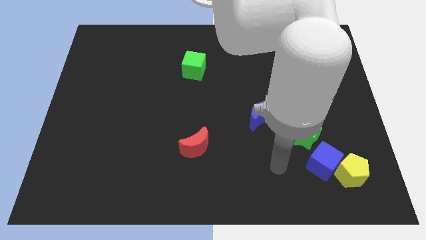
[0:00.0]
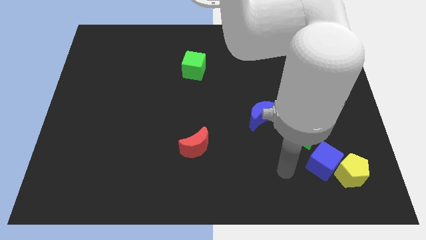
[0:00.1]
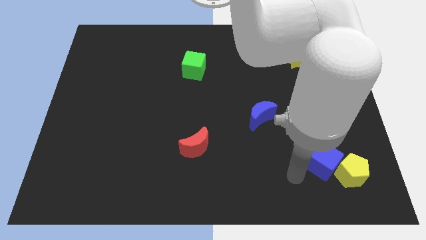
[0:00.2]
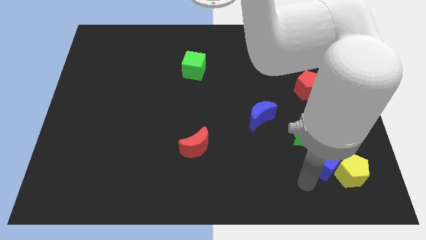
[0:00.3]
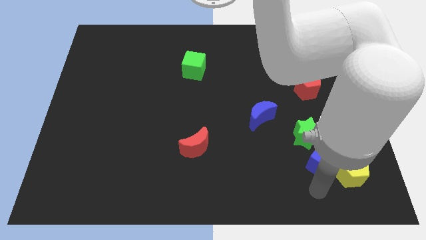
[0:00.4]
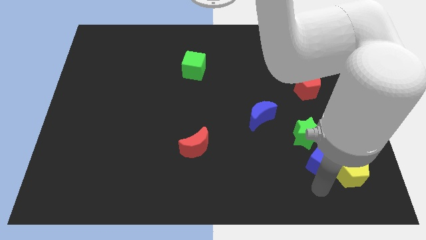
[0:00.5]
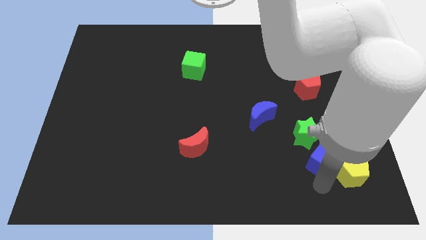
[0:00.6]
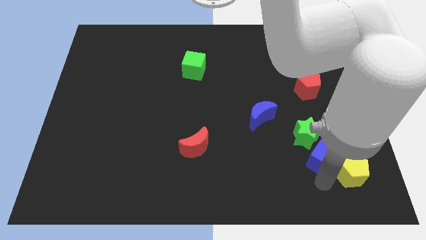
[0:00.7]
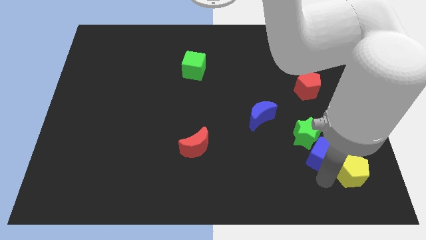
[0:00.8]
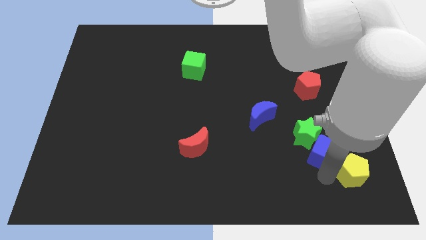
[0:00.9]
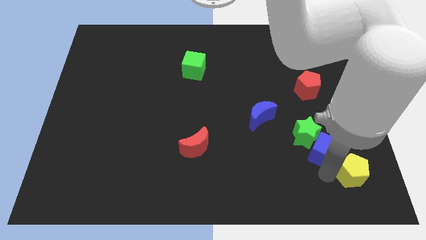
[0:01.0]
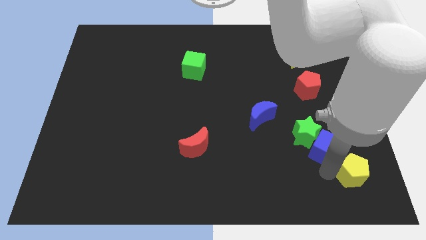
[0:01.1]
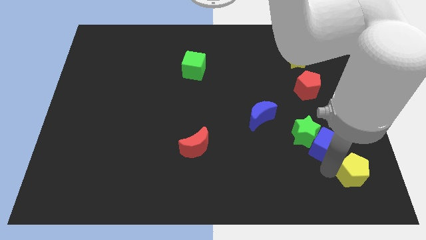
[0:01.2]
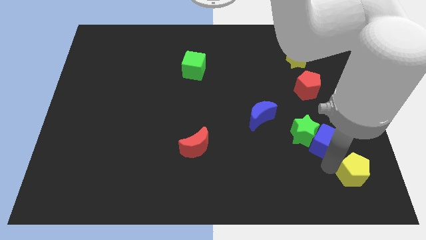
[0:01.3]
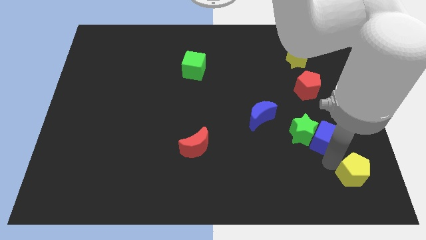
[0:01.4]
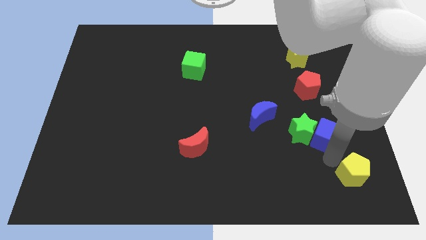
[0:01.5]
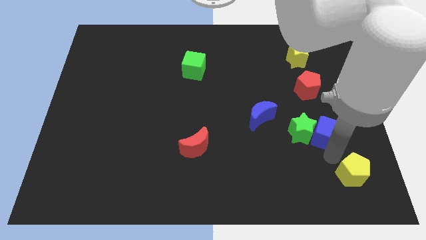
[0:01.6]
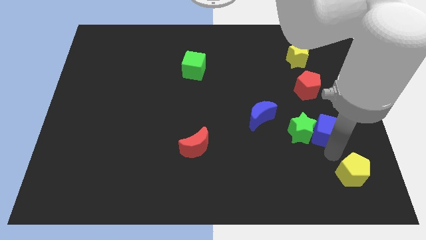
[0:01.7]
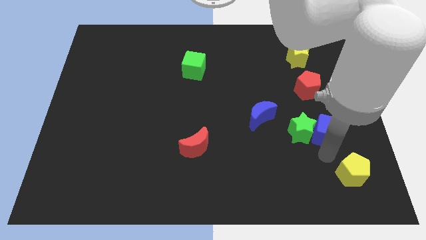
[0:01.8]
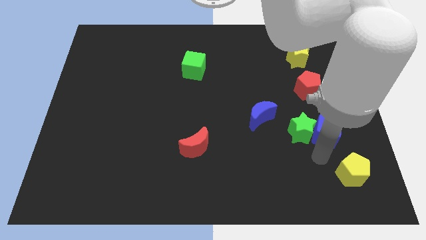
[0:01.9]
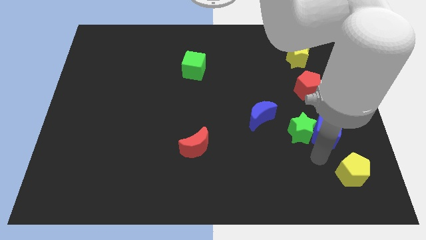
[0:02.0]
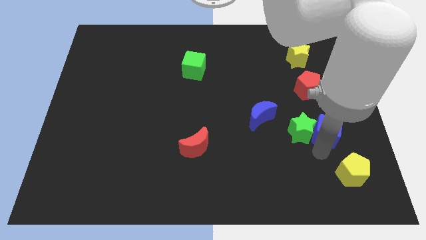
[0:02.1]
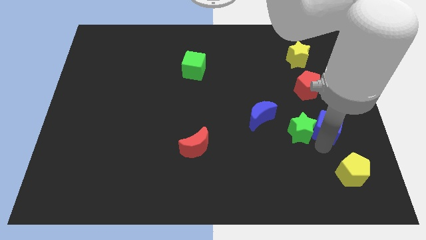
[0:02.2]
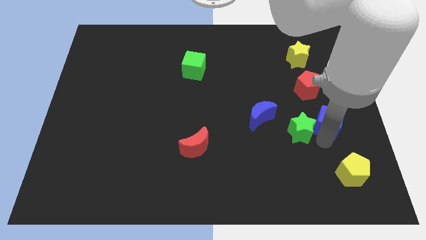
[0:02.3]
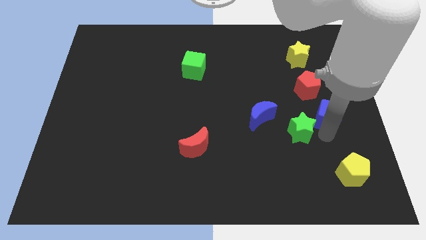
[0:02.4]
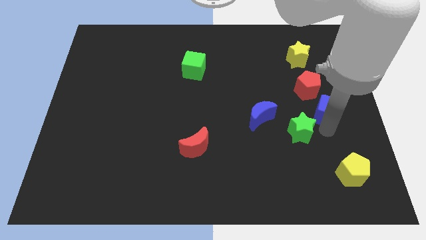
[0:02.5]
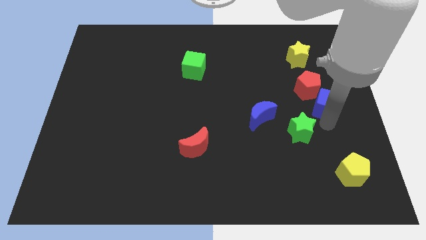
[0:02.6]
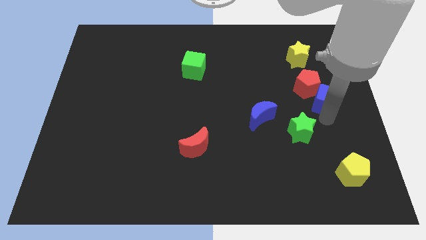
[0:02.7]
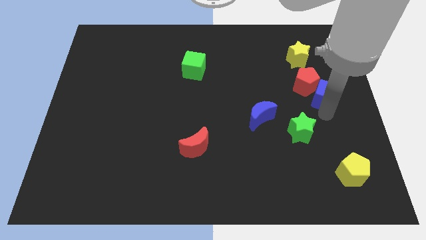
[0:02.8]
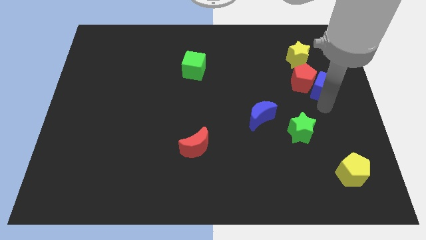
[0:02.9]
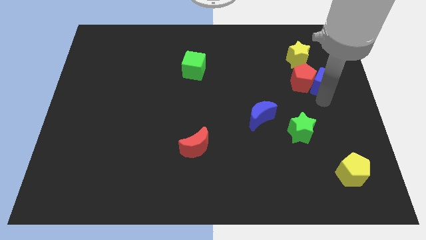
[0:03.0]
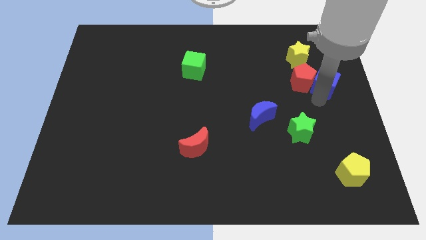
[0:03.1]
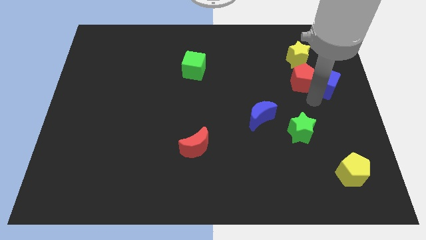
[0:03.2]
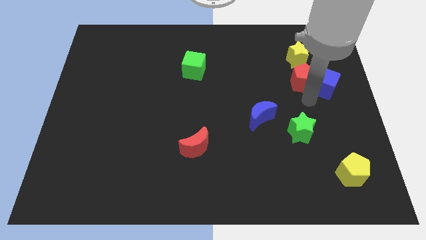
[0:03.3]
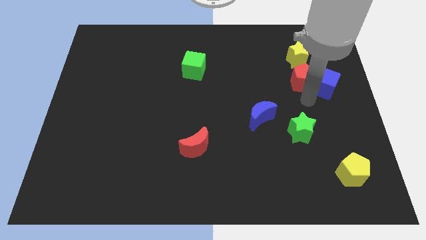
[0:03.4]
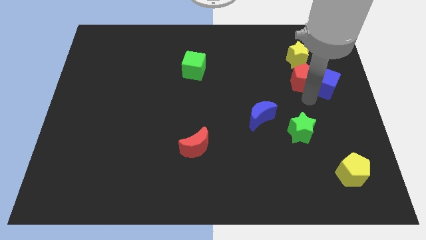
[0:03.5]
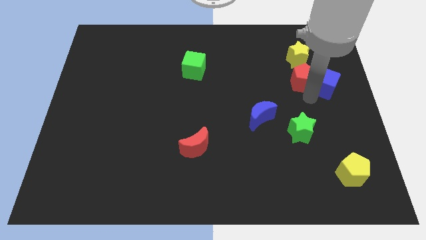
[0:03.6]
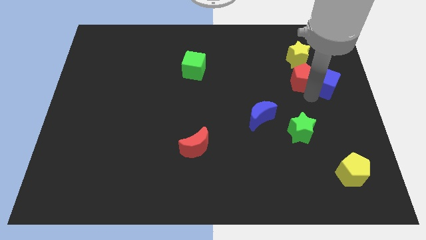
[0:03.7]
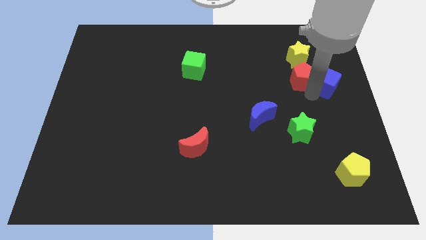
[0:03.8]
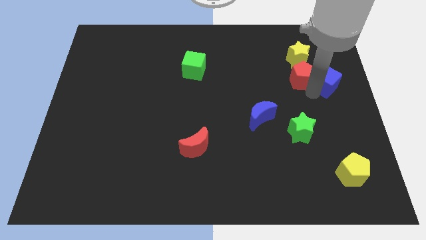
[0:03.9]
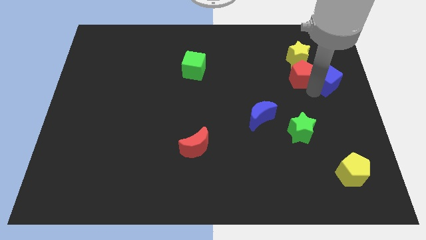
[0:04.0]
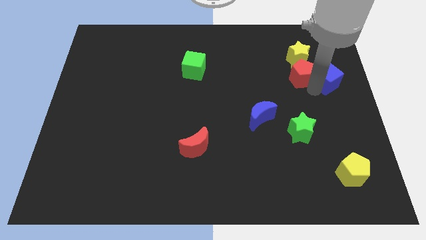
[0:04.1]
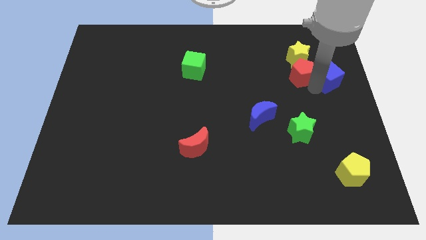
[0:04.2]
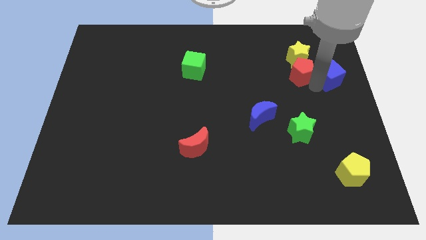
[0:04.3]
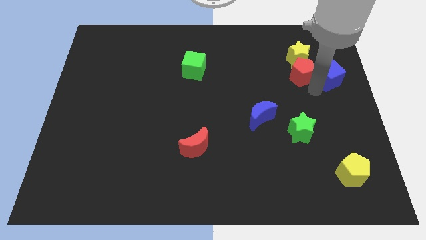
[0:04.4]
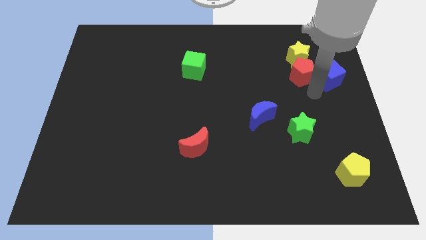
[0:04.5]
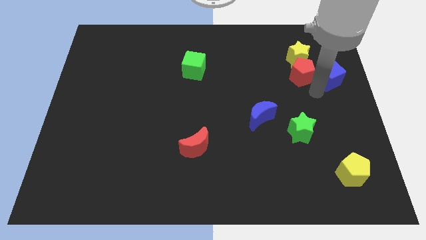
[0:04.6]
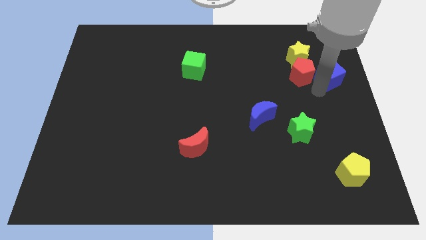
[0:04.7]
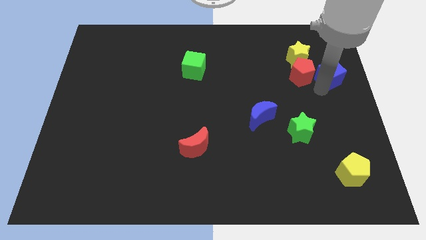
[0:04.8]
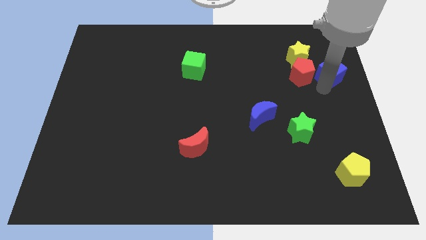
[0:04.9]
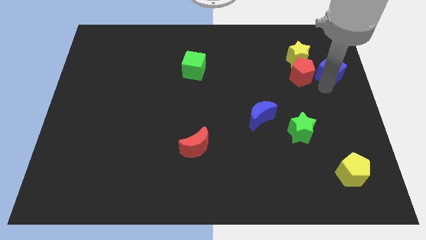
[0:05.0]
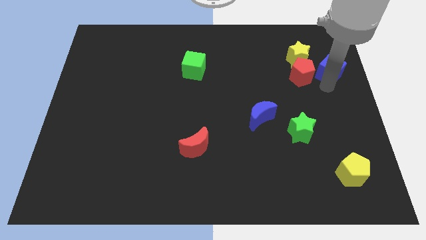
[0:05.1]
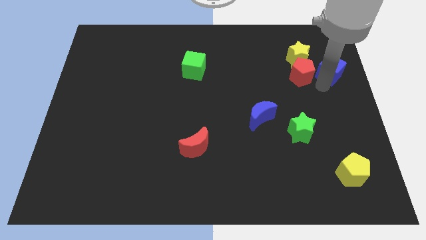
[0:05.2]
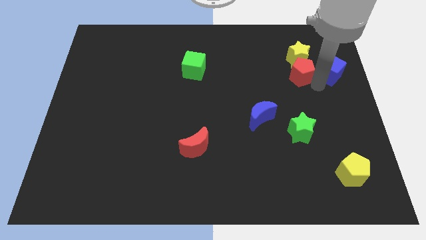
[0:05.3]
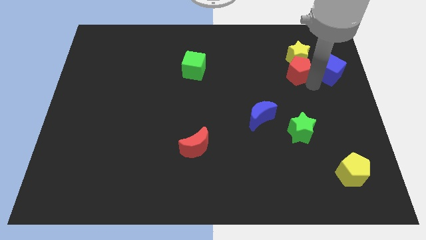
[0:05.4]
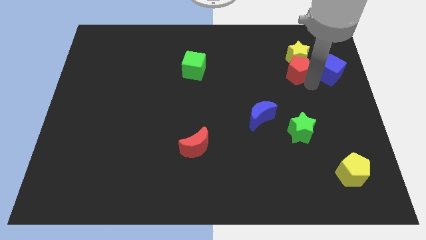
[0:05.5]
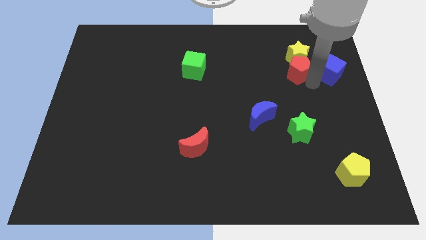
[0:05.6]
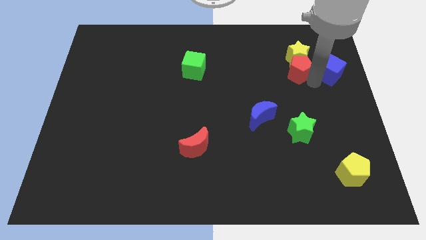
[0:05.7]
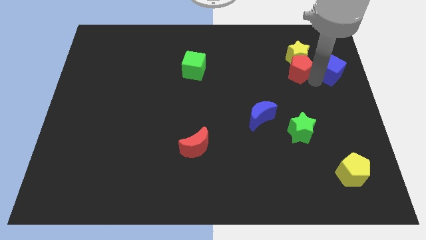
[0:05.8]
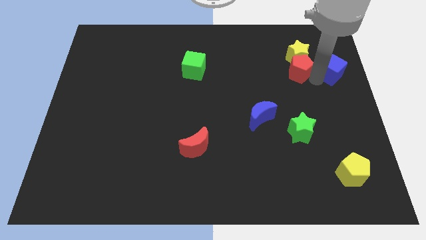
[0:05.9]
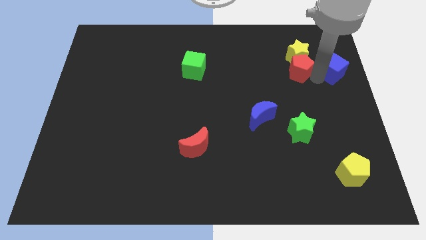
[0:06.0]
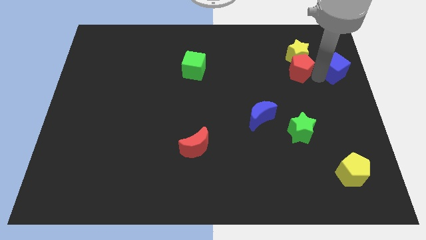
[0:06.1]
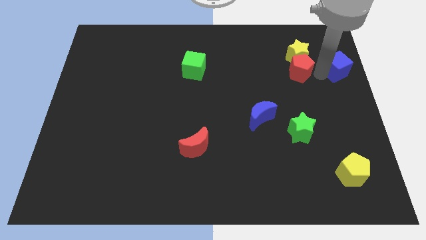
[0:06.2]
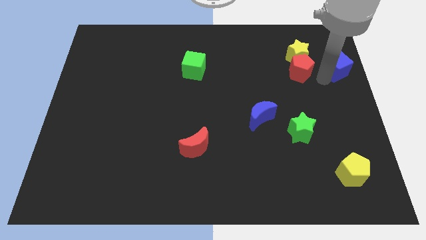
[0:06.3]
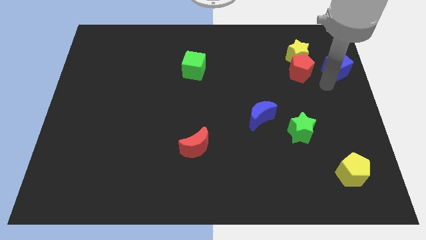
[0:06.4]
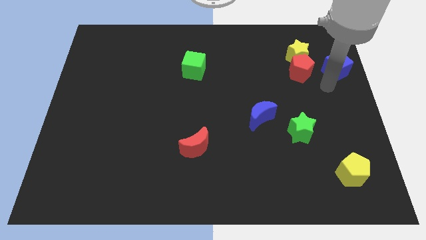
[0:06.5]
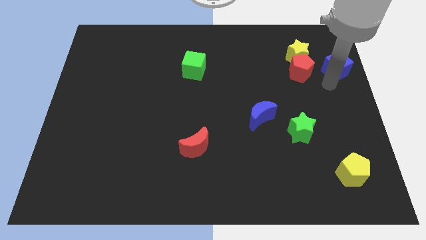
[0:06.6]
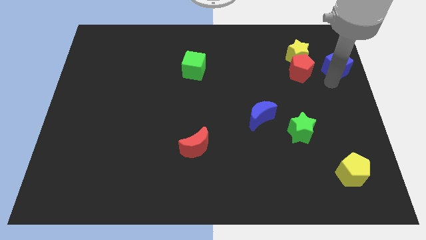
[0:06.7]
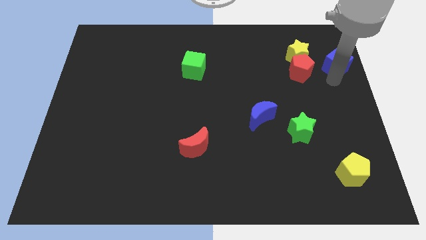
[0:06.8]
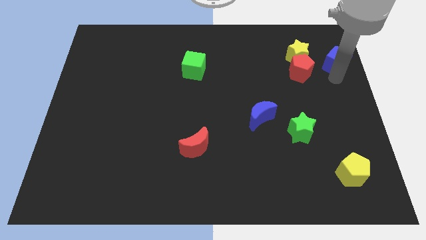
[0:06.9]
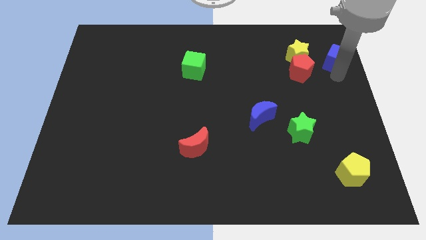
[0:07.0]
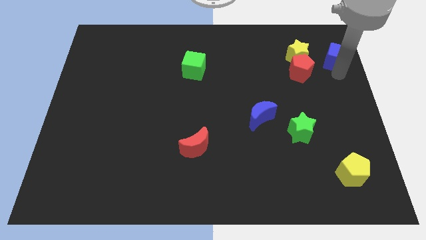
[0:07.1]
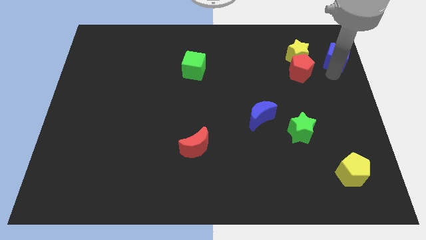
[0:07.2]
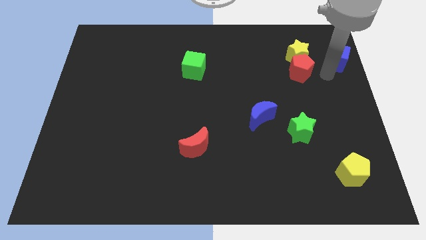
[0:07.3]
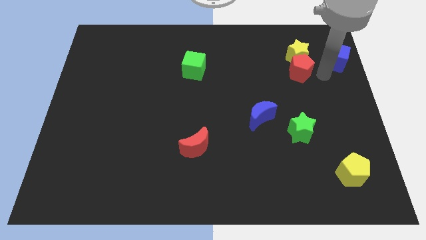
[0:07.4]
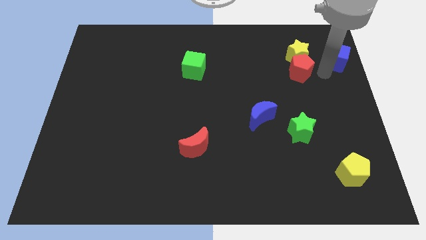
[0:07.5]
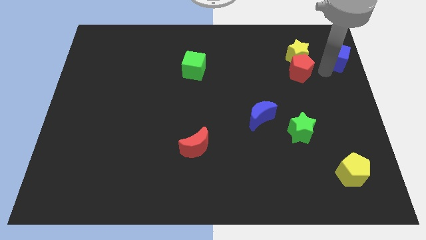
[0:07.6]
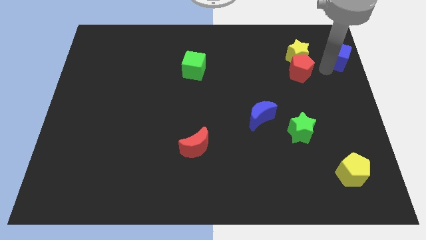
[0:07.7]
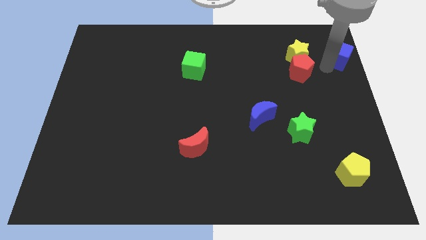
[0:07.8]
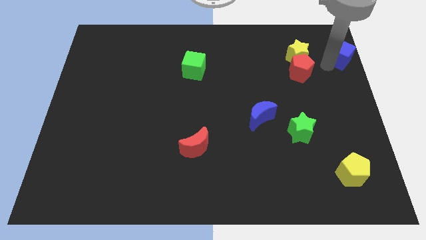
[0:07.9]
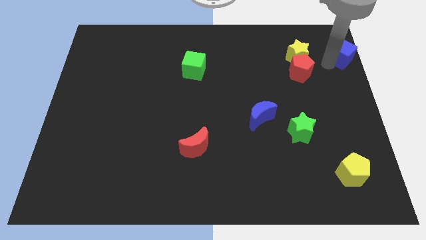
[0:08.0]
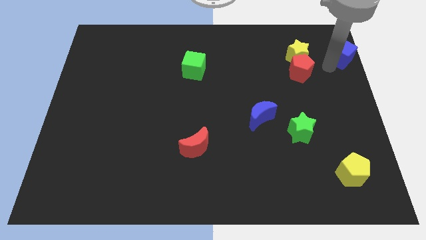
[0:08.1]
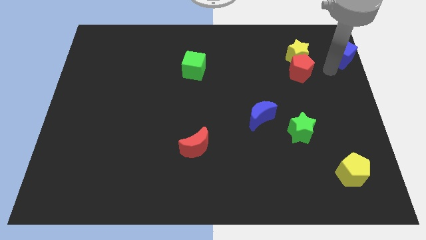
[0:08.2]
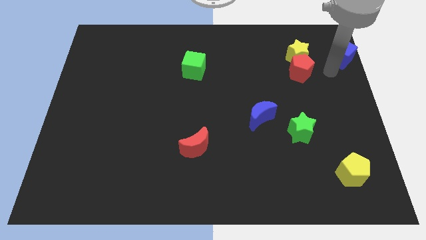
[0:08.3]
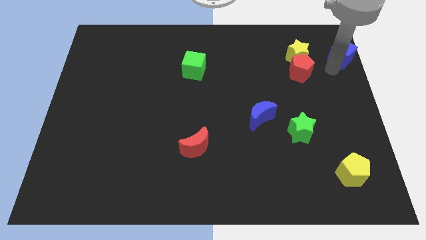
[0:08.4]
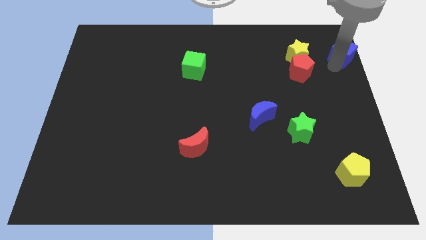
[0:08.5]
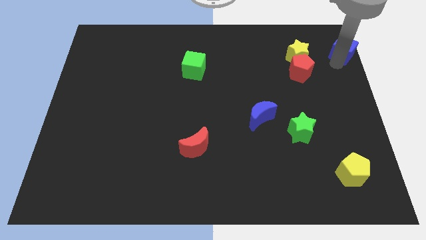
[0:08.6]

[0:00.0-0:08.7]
push the blue cube to the top right
